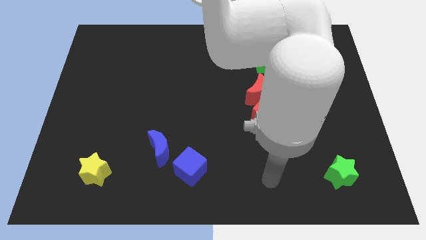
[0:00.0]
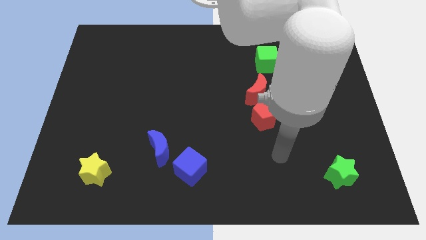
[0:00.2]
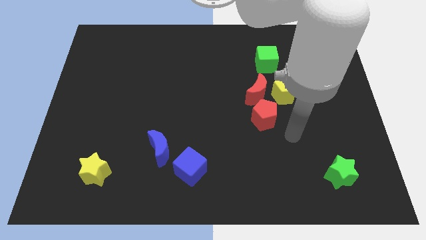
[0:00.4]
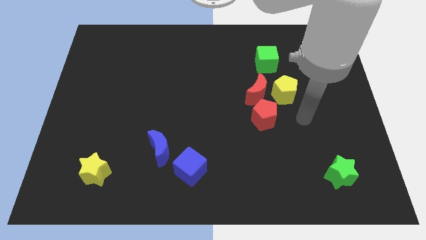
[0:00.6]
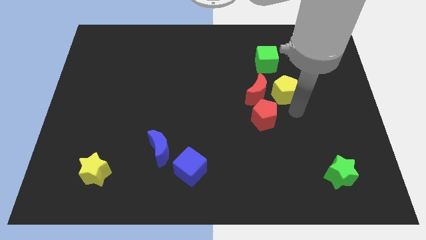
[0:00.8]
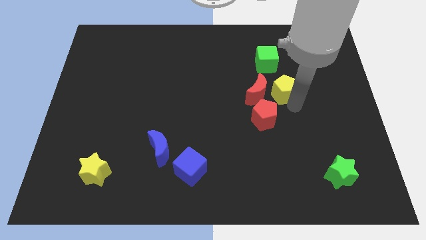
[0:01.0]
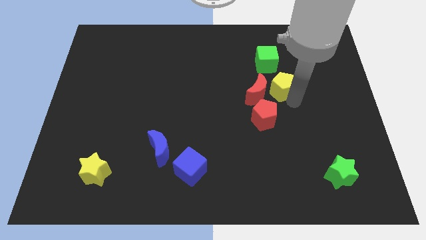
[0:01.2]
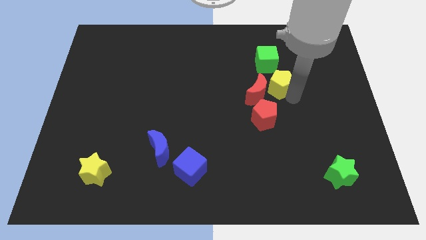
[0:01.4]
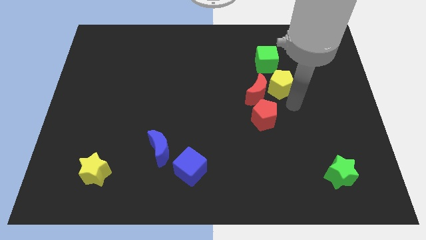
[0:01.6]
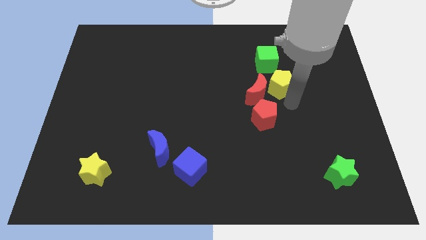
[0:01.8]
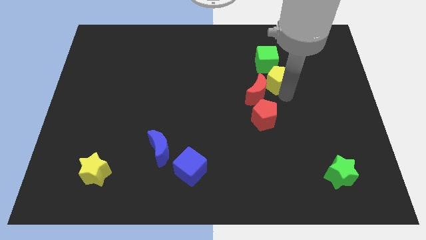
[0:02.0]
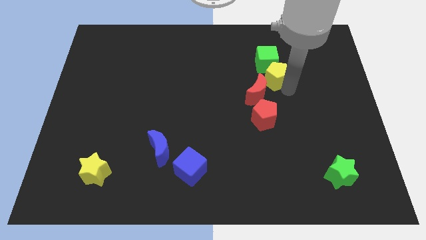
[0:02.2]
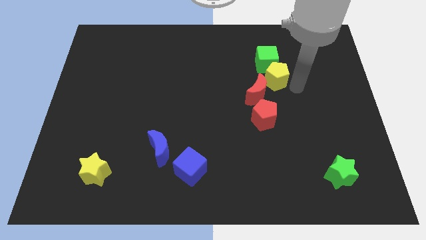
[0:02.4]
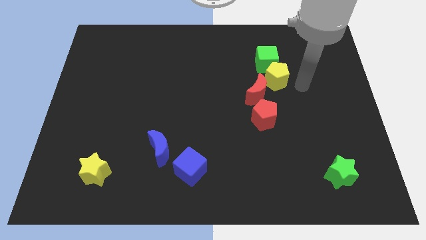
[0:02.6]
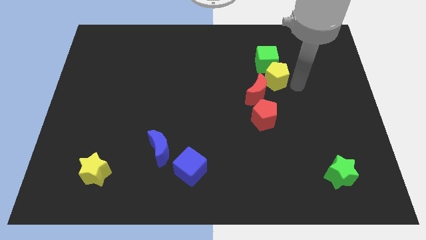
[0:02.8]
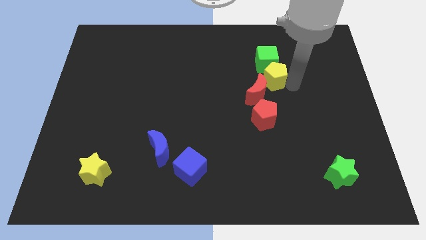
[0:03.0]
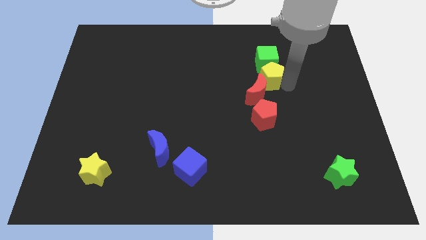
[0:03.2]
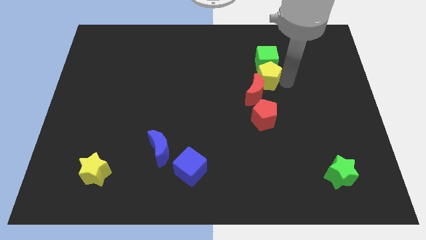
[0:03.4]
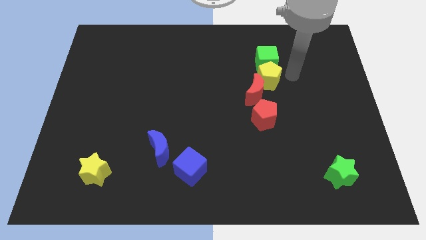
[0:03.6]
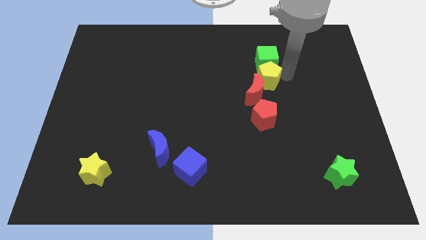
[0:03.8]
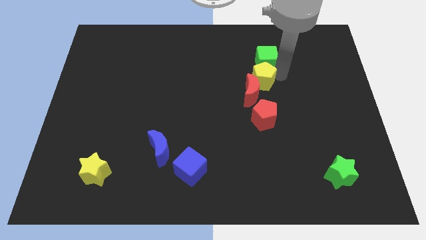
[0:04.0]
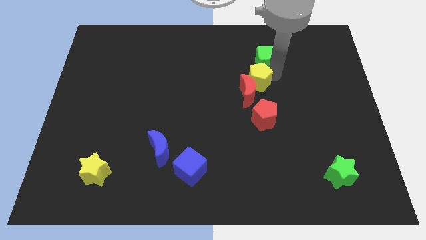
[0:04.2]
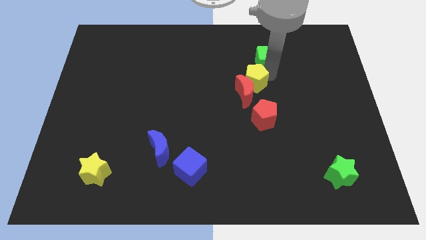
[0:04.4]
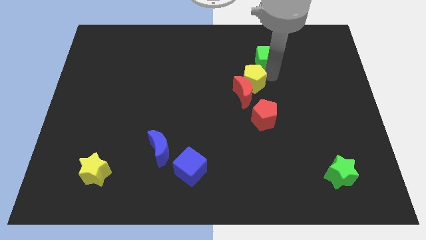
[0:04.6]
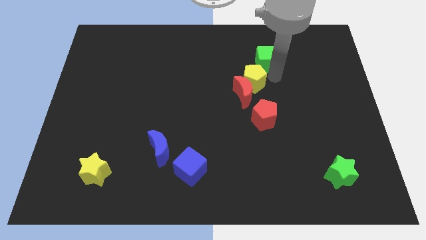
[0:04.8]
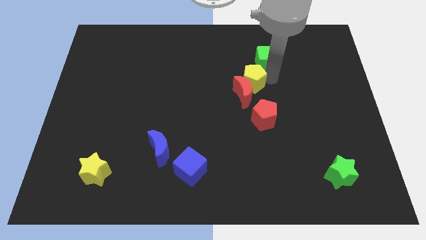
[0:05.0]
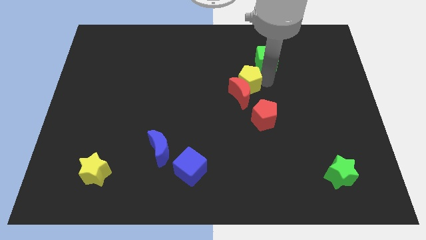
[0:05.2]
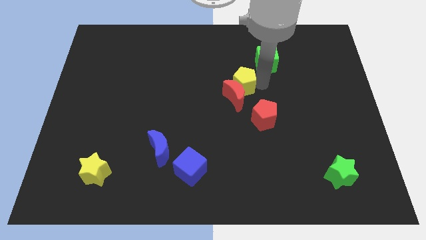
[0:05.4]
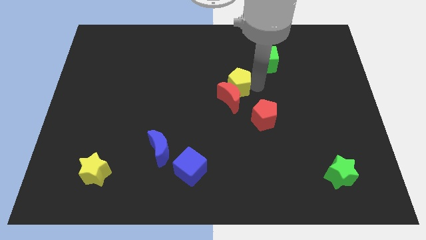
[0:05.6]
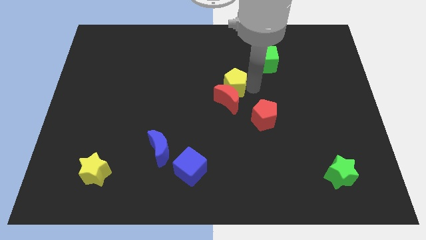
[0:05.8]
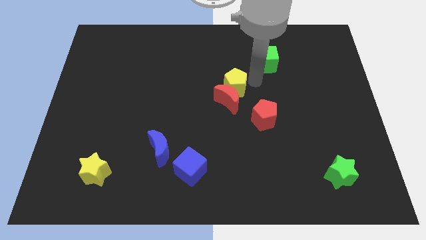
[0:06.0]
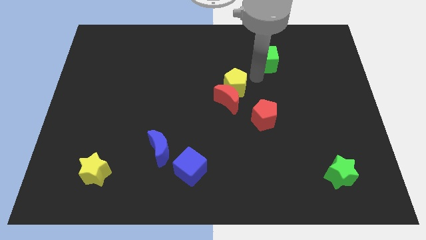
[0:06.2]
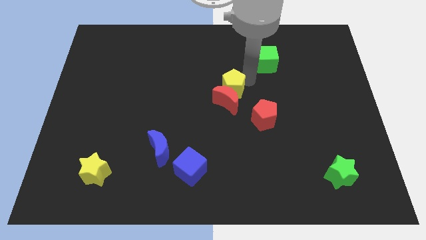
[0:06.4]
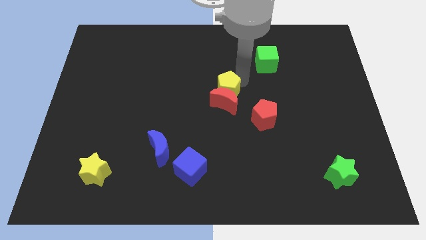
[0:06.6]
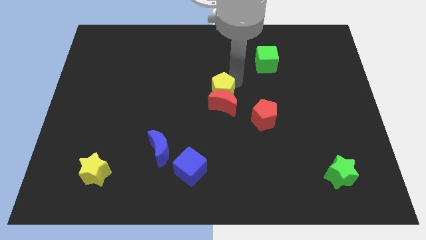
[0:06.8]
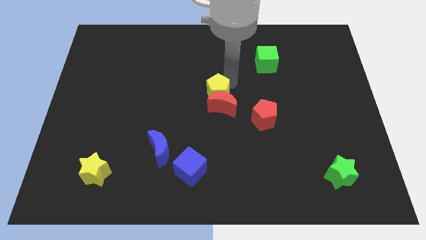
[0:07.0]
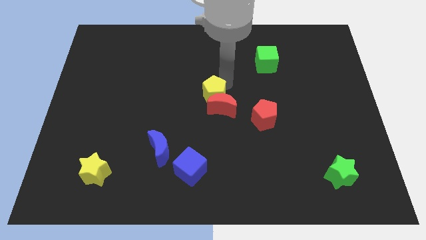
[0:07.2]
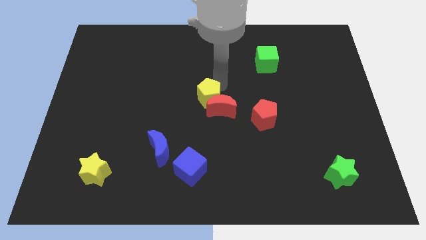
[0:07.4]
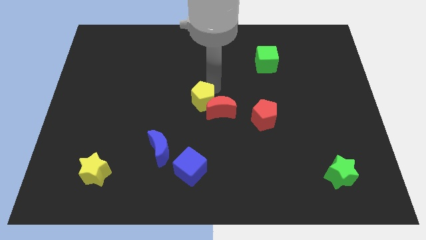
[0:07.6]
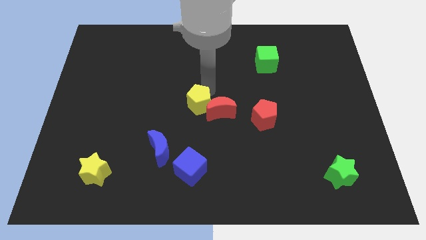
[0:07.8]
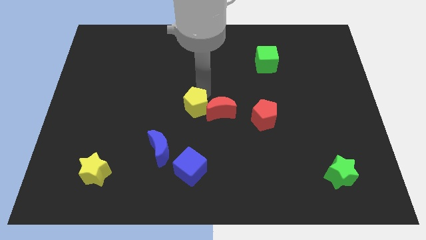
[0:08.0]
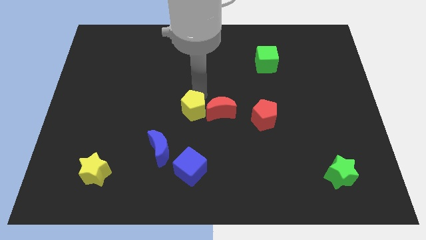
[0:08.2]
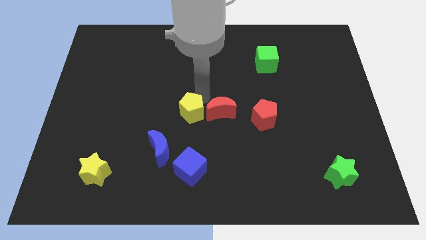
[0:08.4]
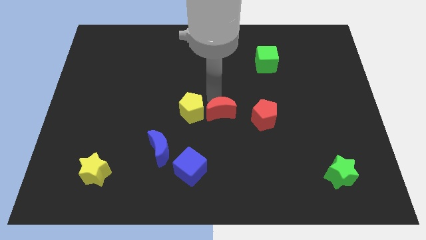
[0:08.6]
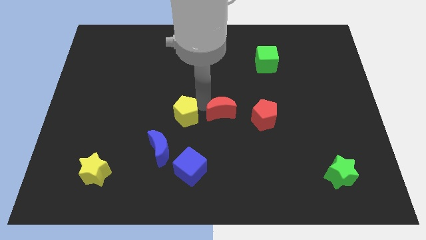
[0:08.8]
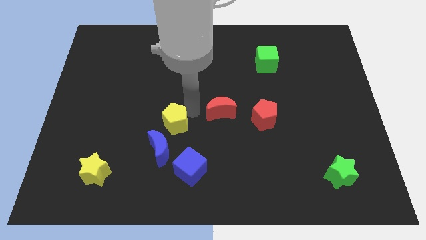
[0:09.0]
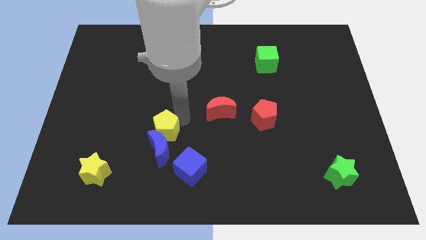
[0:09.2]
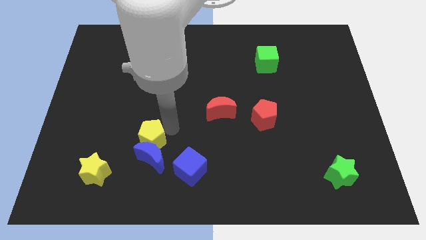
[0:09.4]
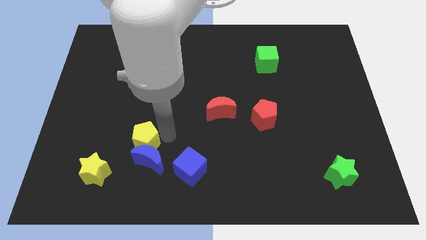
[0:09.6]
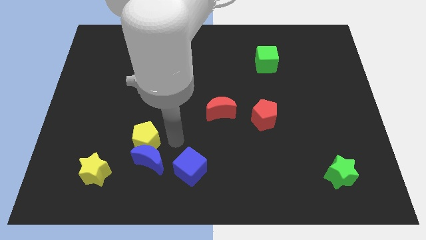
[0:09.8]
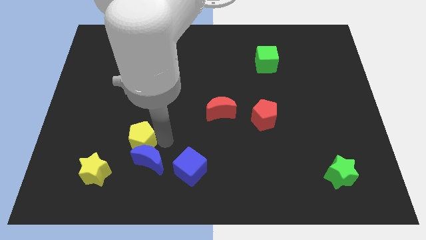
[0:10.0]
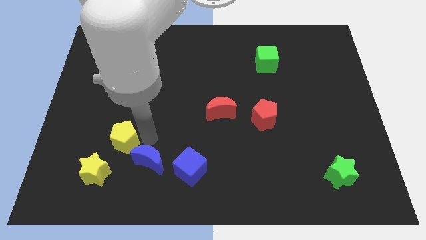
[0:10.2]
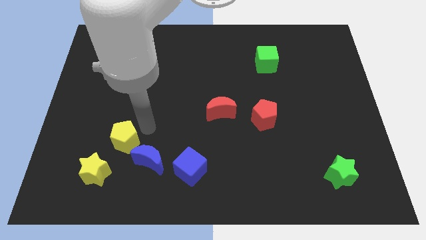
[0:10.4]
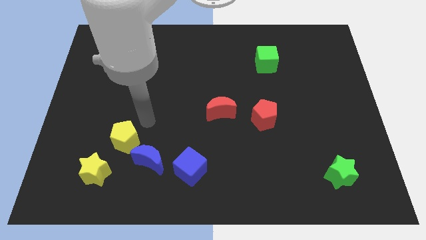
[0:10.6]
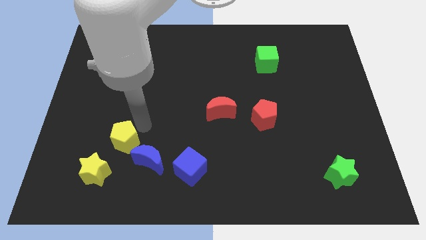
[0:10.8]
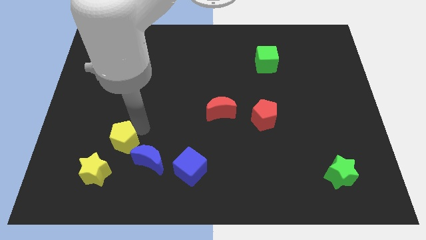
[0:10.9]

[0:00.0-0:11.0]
push the yellow pentagon to the left side of the blue moon

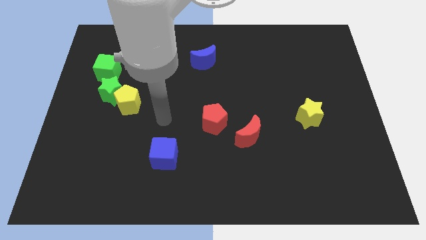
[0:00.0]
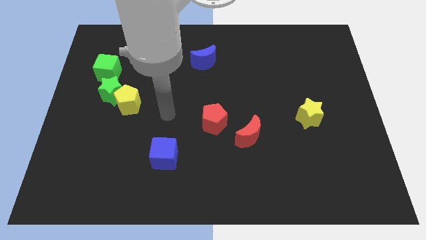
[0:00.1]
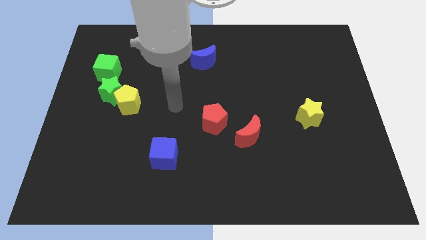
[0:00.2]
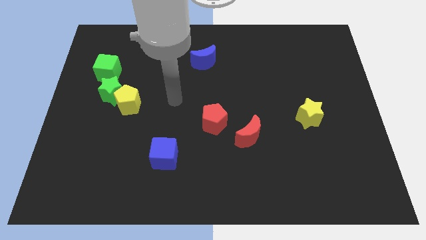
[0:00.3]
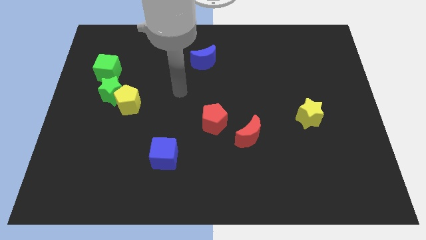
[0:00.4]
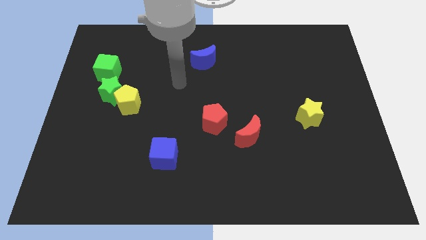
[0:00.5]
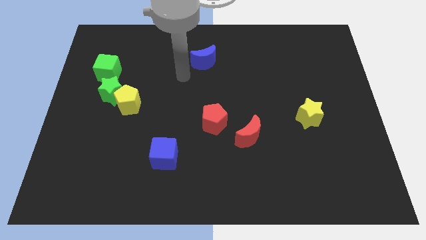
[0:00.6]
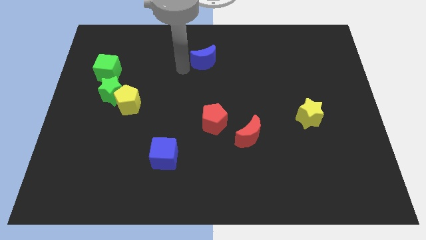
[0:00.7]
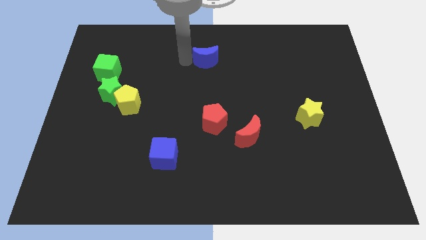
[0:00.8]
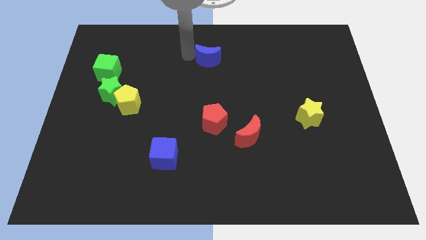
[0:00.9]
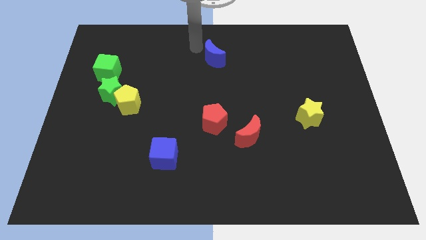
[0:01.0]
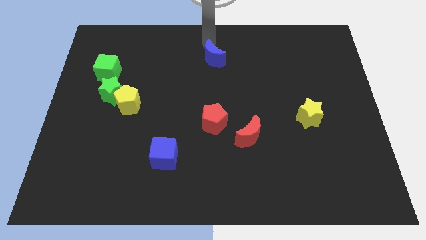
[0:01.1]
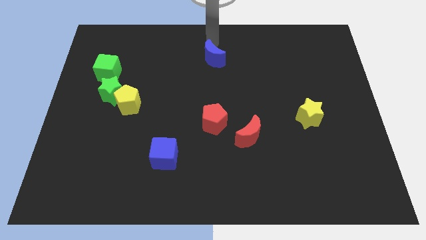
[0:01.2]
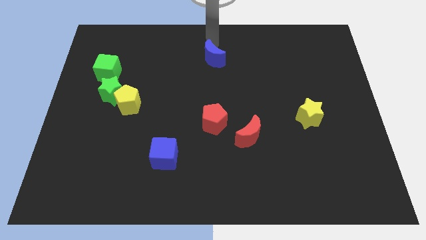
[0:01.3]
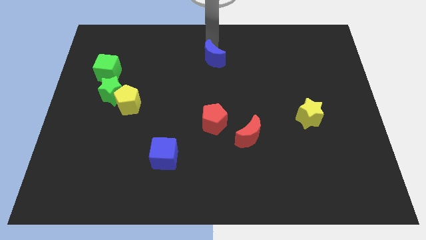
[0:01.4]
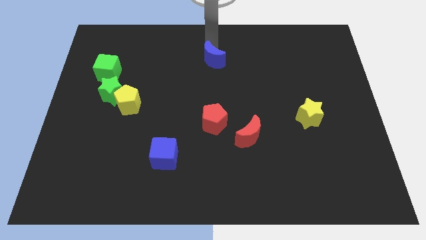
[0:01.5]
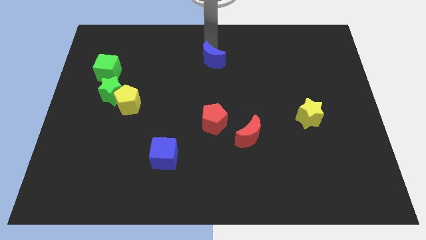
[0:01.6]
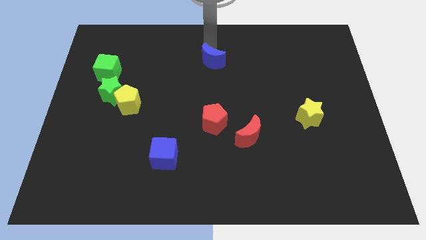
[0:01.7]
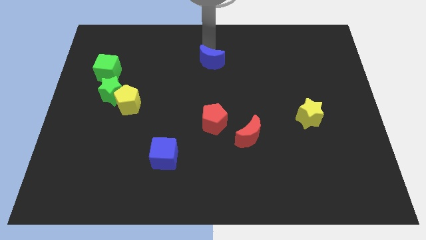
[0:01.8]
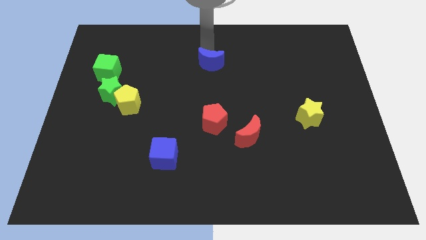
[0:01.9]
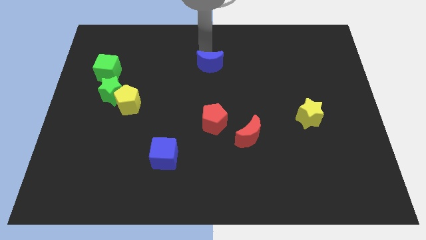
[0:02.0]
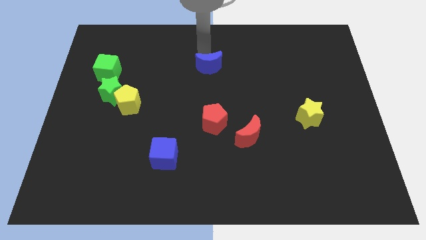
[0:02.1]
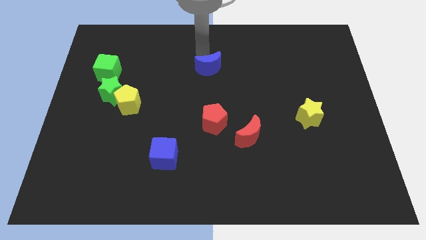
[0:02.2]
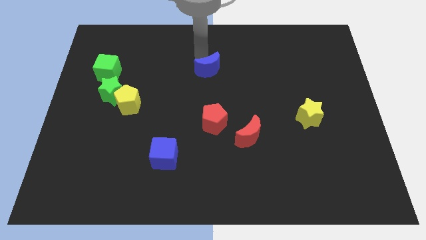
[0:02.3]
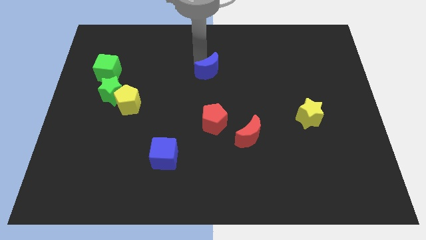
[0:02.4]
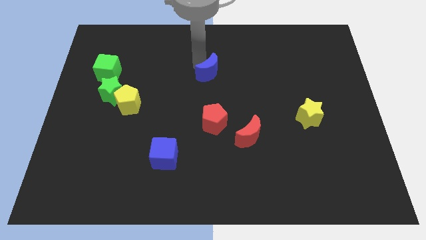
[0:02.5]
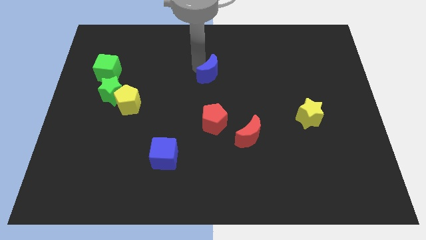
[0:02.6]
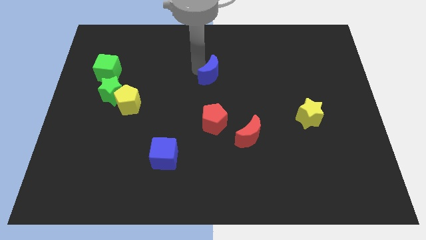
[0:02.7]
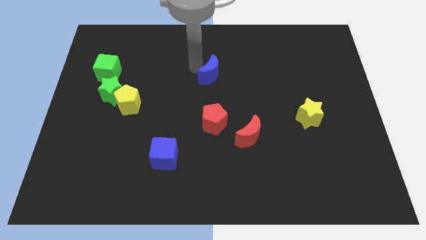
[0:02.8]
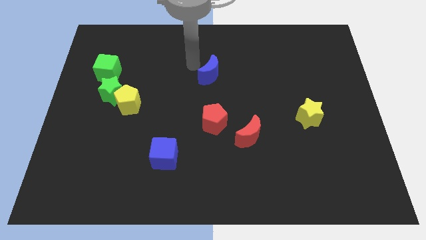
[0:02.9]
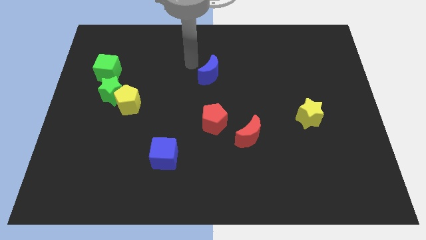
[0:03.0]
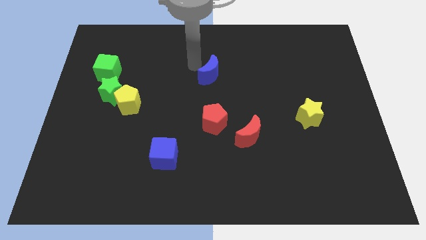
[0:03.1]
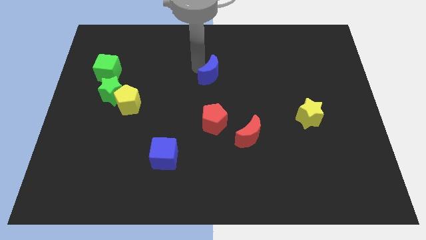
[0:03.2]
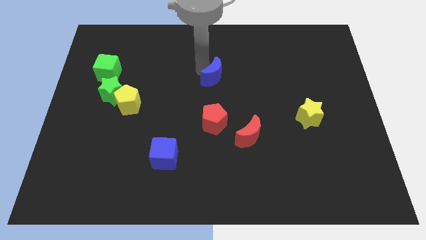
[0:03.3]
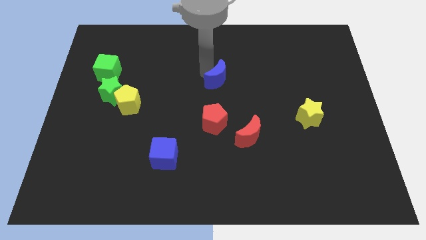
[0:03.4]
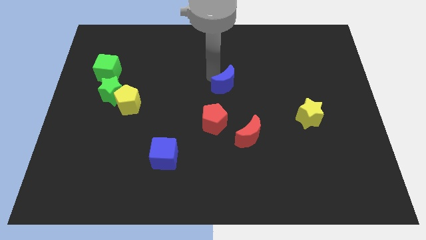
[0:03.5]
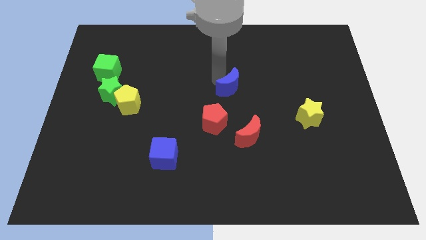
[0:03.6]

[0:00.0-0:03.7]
put the blue moon above the red moon
